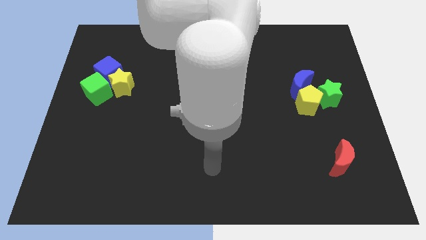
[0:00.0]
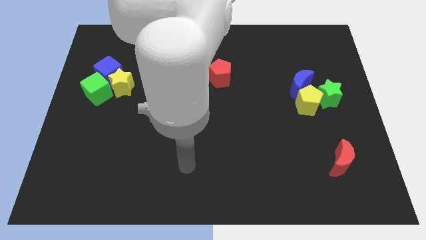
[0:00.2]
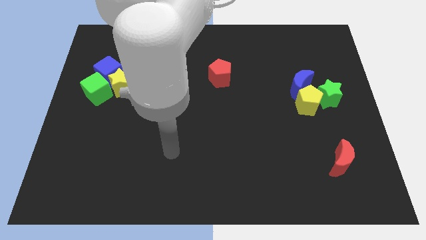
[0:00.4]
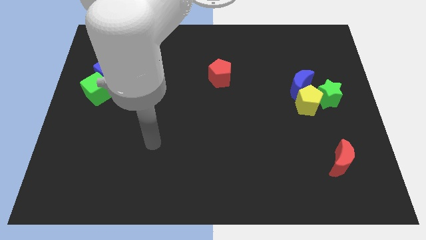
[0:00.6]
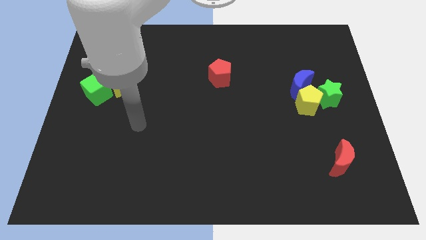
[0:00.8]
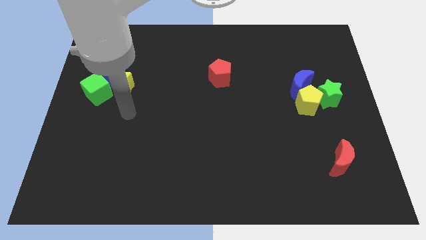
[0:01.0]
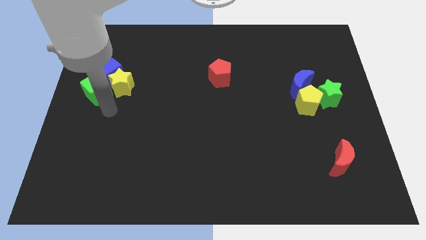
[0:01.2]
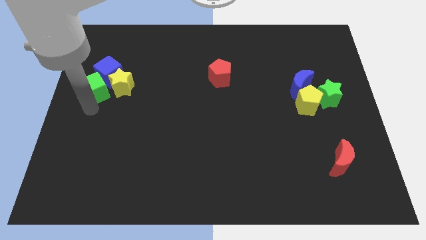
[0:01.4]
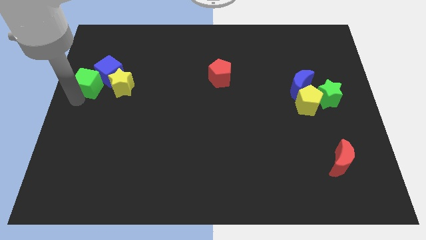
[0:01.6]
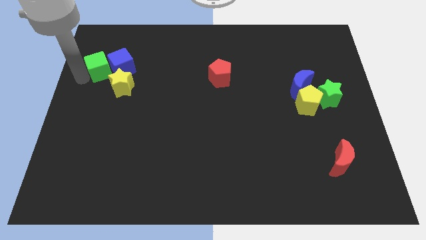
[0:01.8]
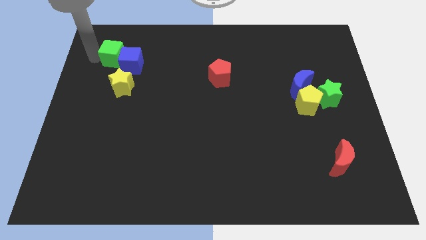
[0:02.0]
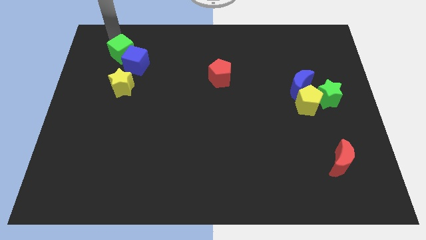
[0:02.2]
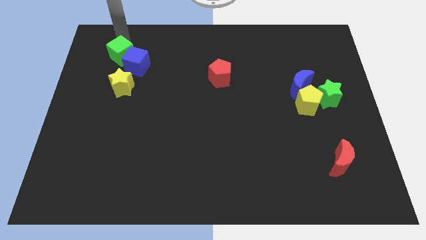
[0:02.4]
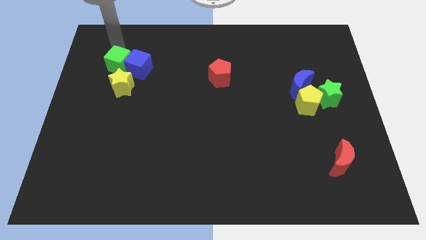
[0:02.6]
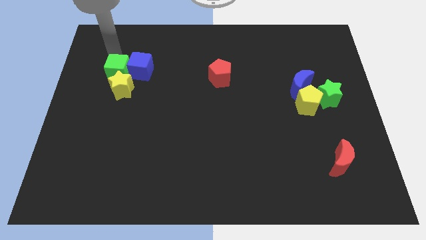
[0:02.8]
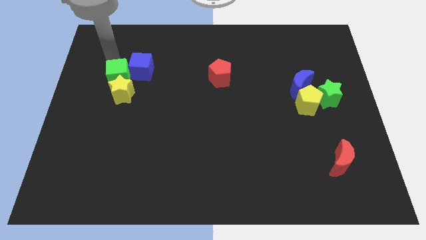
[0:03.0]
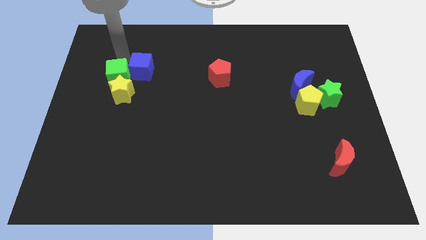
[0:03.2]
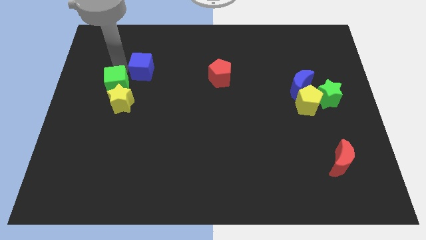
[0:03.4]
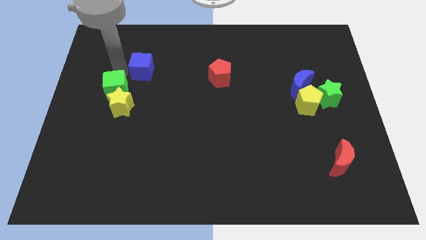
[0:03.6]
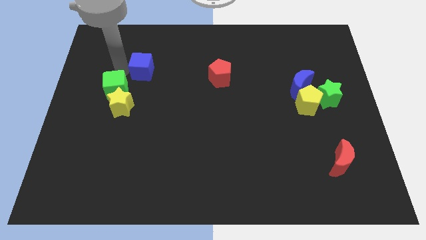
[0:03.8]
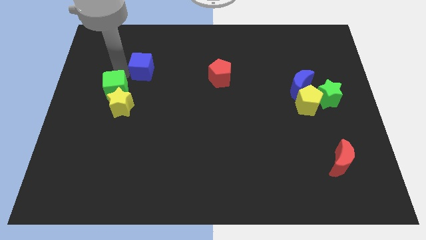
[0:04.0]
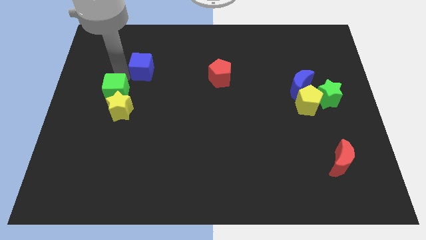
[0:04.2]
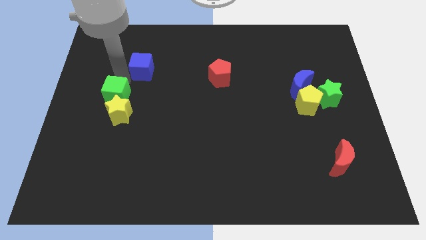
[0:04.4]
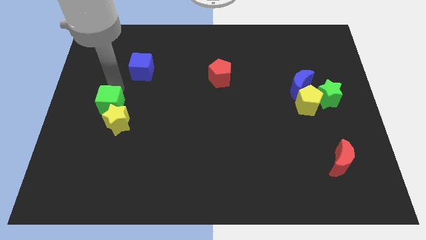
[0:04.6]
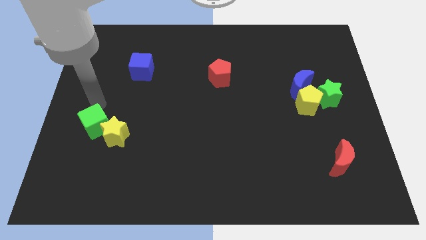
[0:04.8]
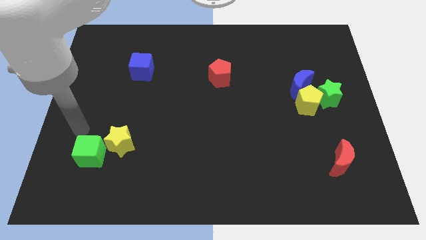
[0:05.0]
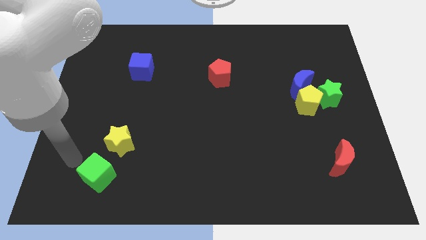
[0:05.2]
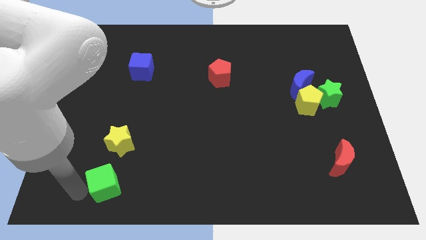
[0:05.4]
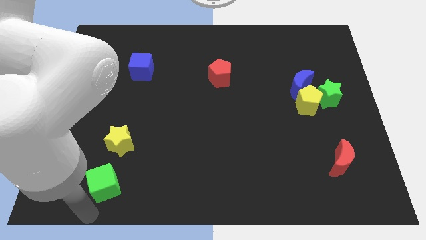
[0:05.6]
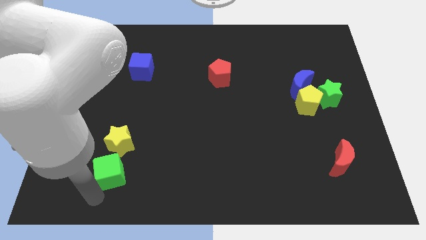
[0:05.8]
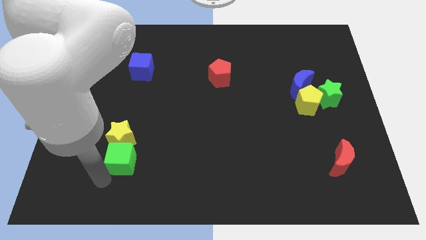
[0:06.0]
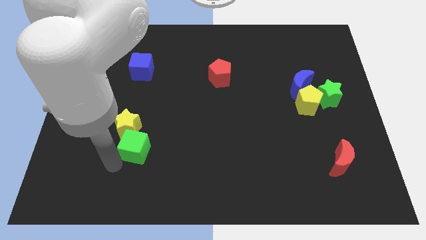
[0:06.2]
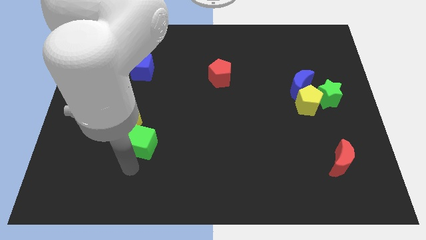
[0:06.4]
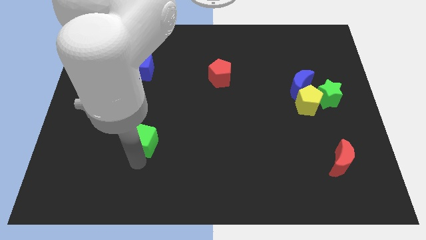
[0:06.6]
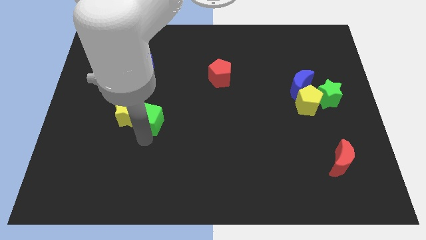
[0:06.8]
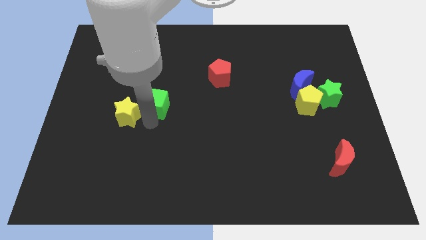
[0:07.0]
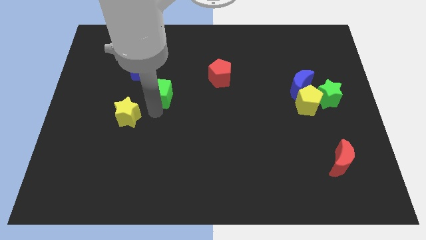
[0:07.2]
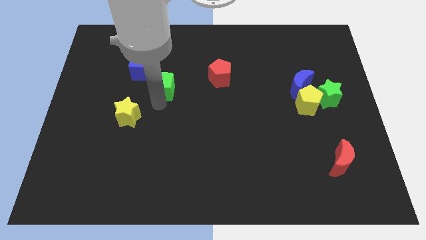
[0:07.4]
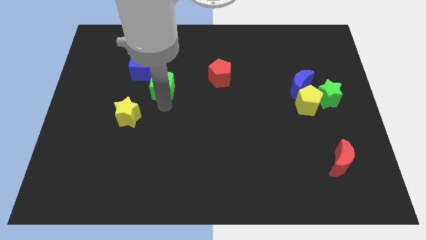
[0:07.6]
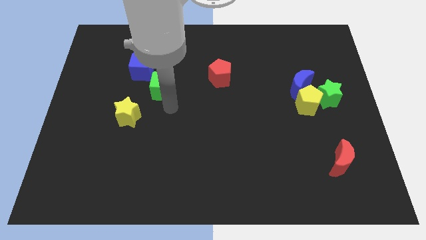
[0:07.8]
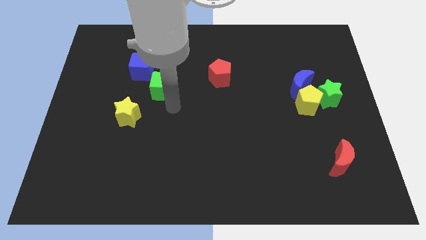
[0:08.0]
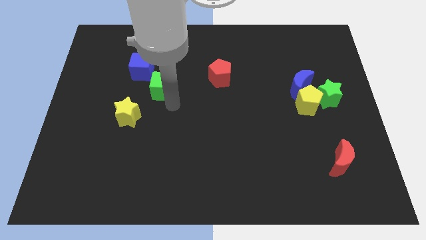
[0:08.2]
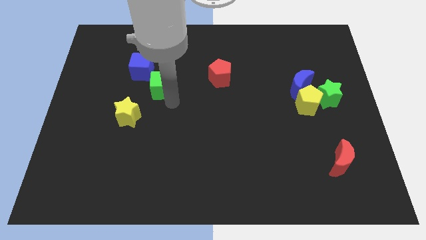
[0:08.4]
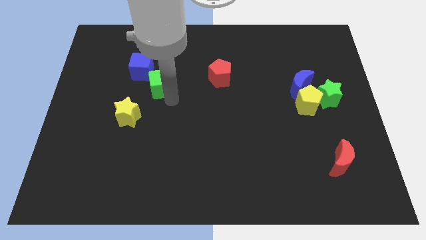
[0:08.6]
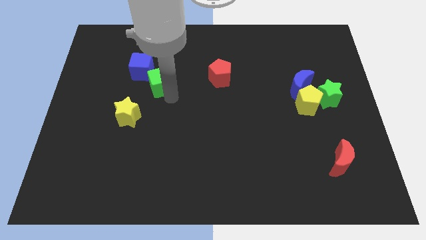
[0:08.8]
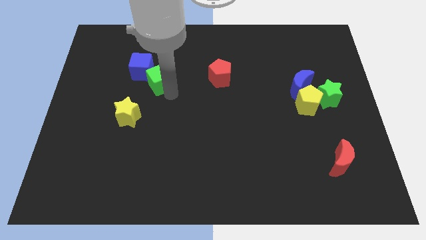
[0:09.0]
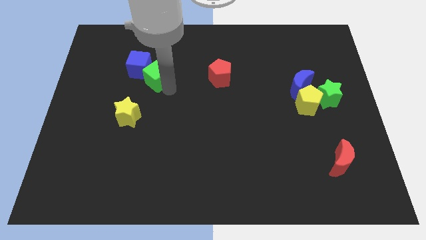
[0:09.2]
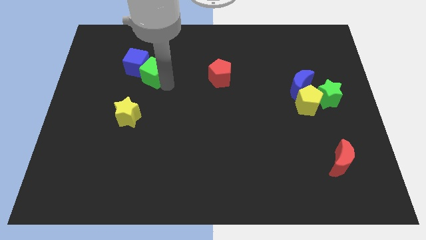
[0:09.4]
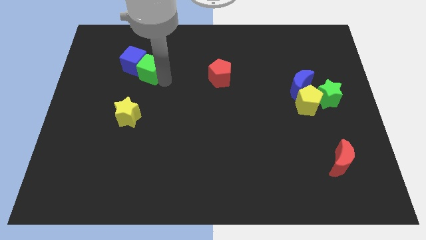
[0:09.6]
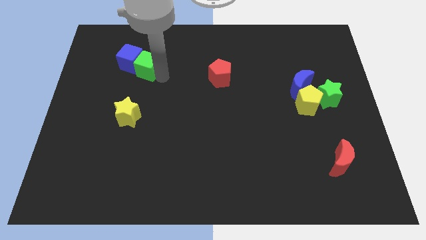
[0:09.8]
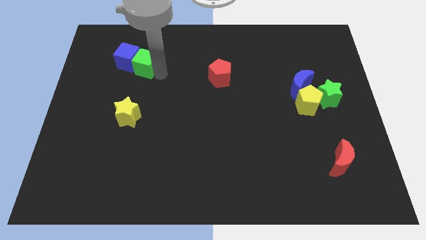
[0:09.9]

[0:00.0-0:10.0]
move the green cube to the bottom right of the blue cube

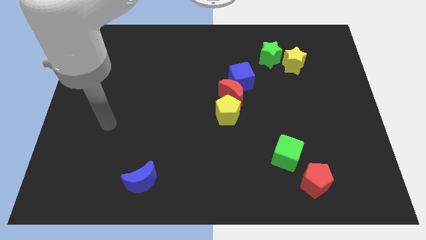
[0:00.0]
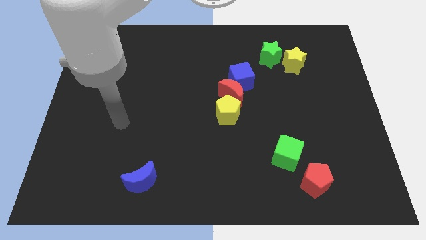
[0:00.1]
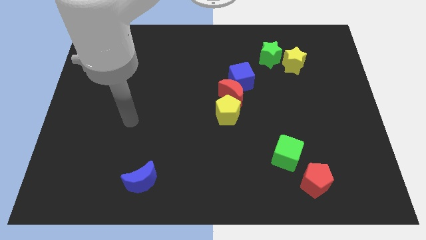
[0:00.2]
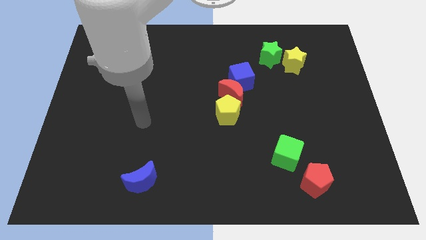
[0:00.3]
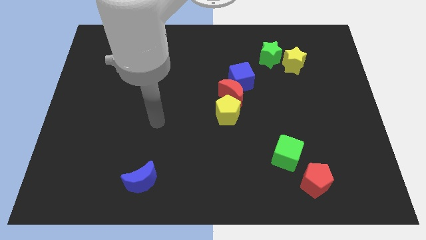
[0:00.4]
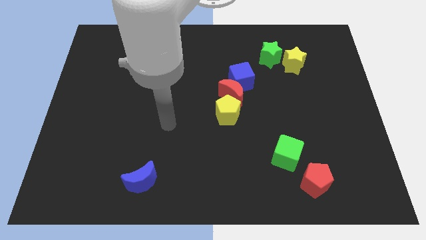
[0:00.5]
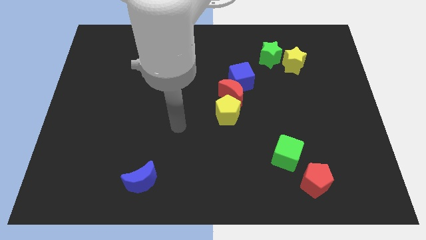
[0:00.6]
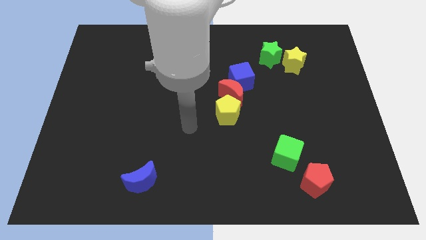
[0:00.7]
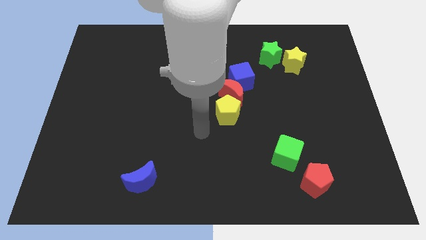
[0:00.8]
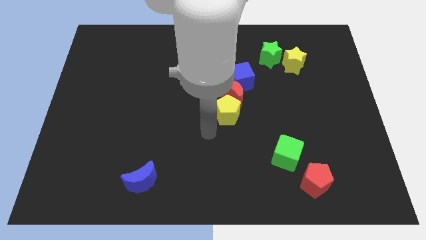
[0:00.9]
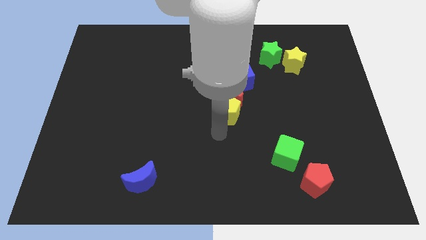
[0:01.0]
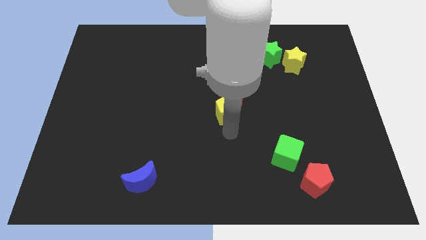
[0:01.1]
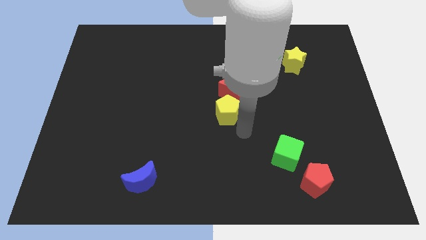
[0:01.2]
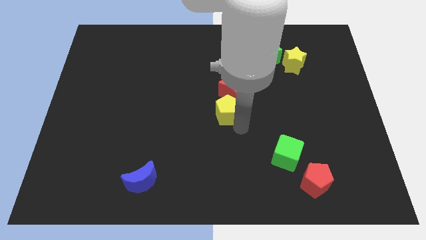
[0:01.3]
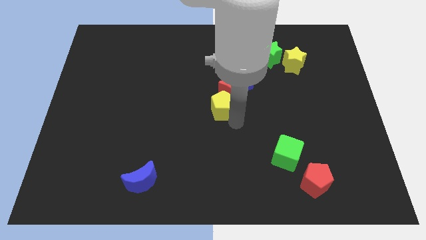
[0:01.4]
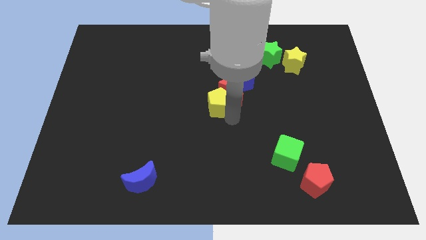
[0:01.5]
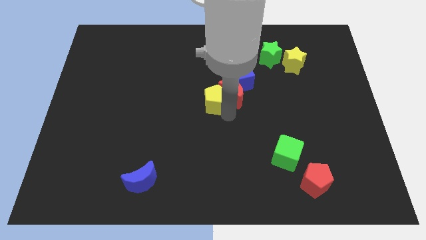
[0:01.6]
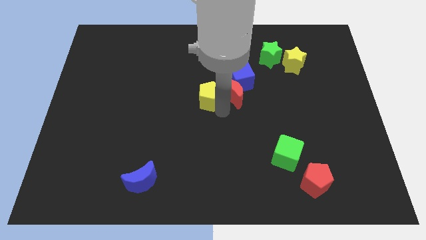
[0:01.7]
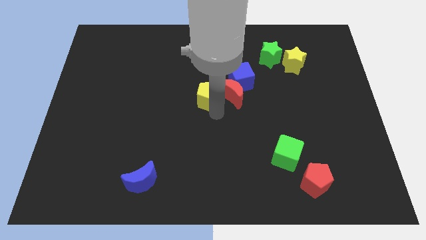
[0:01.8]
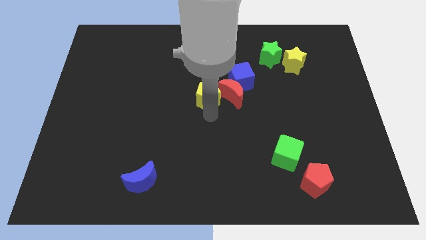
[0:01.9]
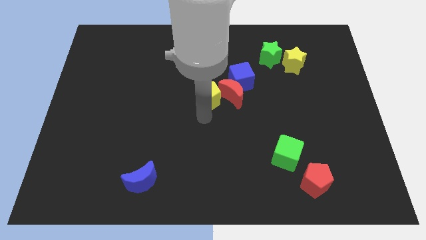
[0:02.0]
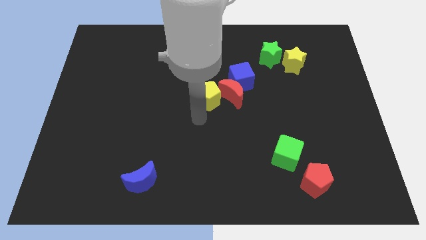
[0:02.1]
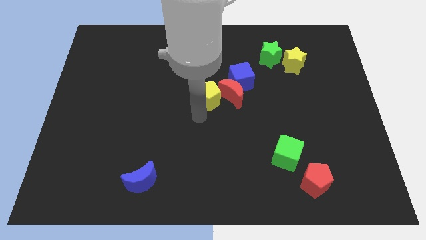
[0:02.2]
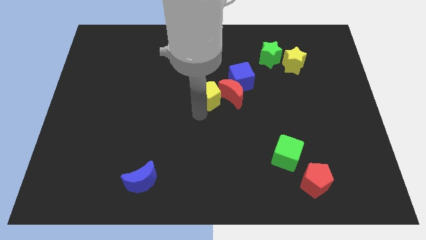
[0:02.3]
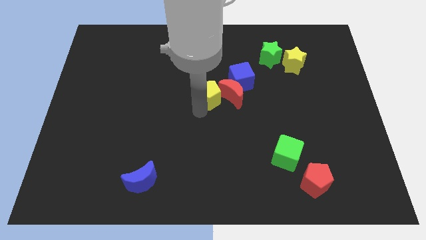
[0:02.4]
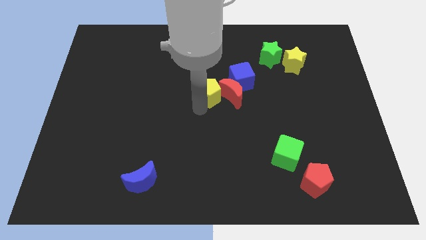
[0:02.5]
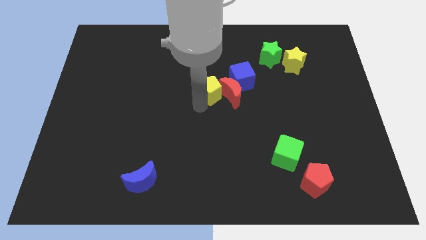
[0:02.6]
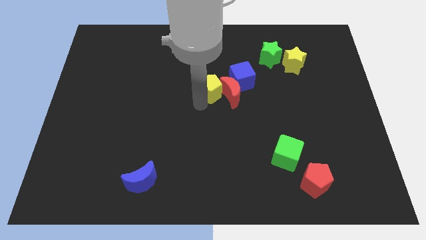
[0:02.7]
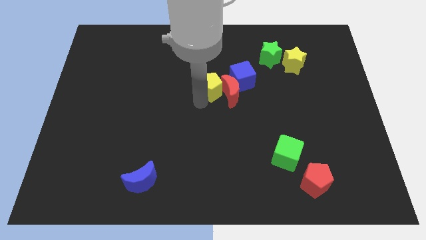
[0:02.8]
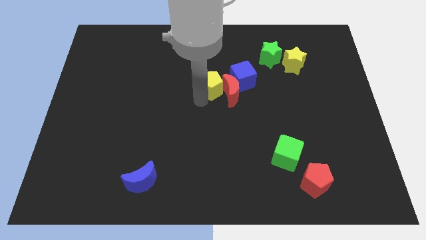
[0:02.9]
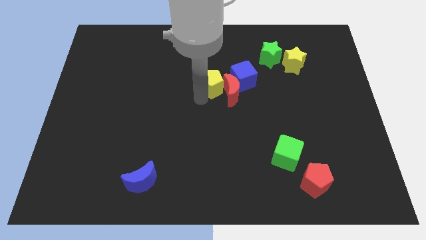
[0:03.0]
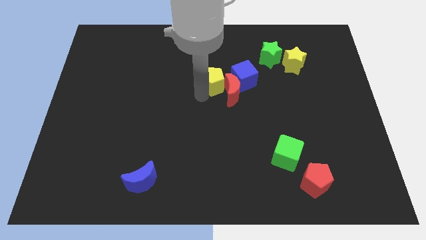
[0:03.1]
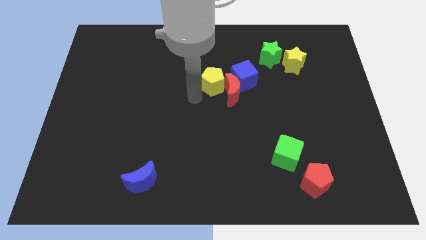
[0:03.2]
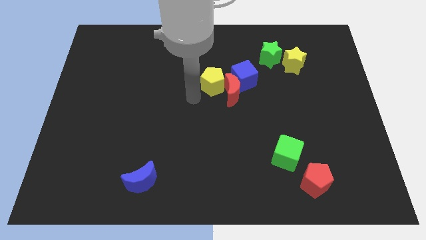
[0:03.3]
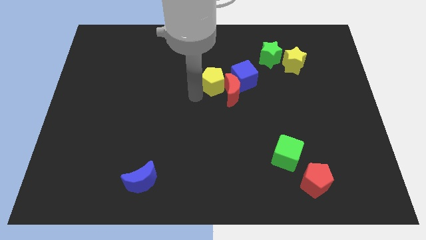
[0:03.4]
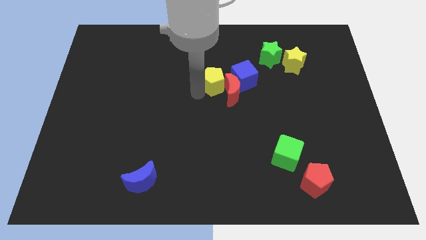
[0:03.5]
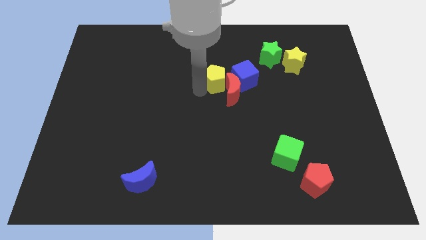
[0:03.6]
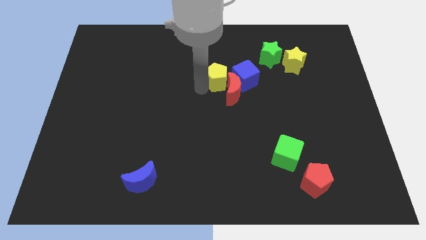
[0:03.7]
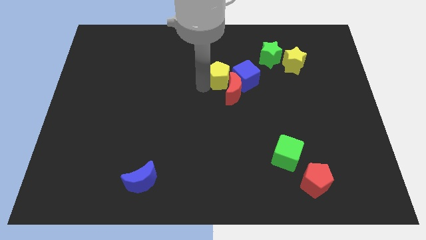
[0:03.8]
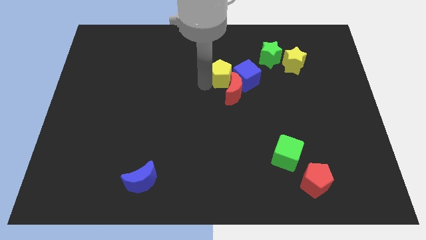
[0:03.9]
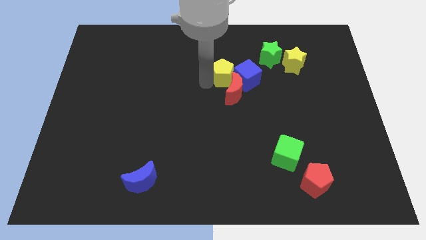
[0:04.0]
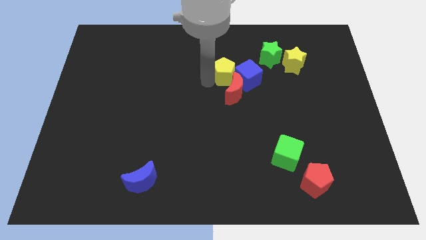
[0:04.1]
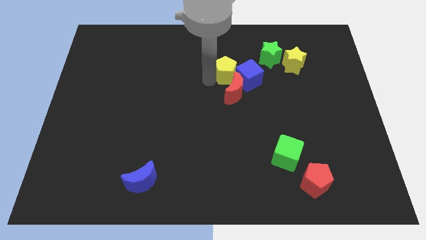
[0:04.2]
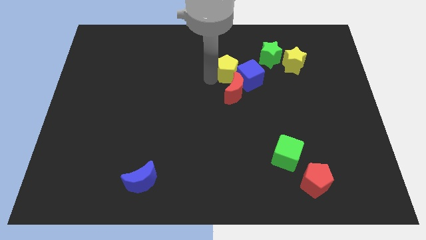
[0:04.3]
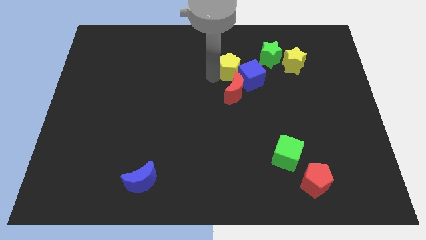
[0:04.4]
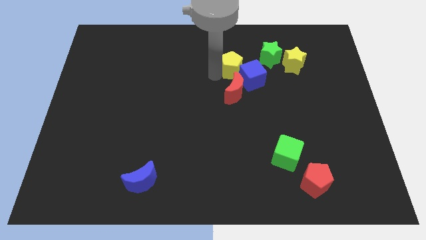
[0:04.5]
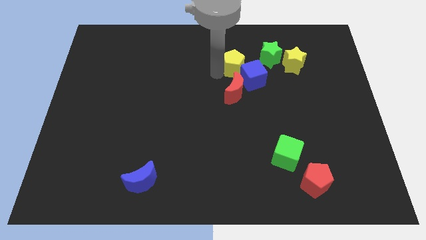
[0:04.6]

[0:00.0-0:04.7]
slide the yellow pentagon just left of the yellow star
